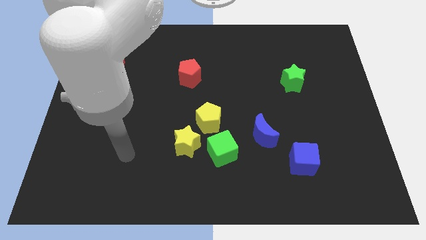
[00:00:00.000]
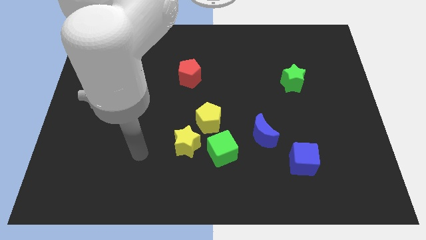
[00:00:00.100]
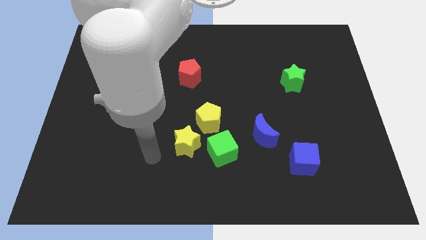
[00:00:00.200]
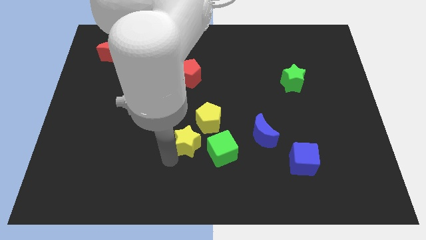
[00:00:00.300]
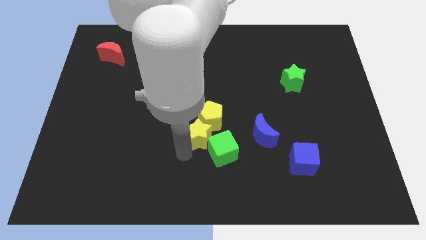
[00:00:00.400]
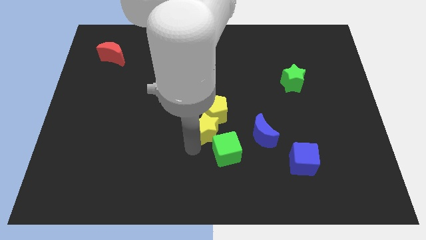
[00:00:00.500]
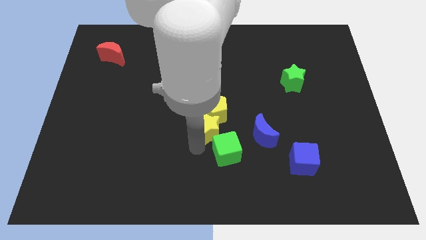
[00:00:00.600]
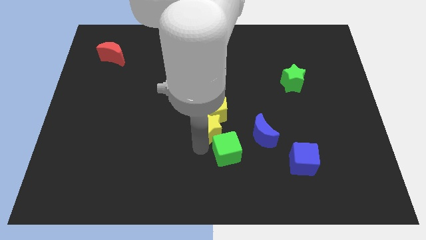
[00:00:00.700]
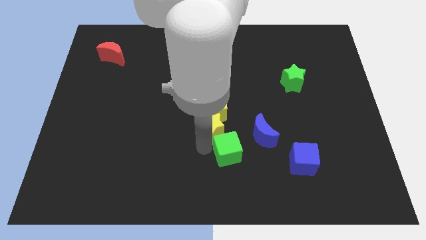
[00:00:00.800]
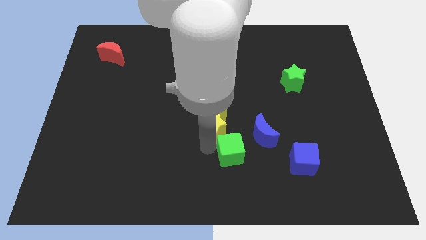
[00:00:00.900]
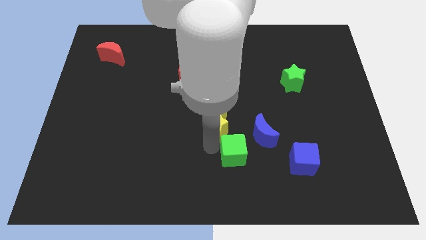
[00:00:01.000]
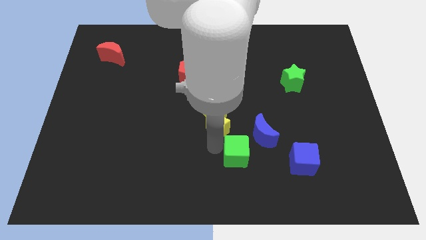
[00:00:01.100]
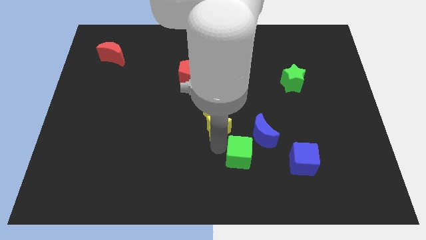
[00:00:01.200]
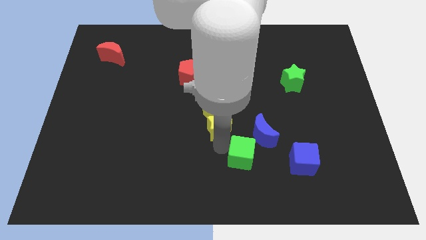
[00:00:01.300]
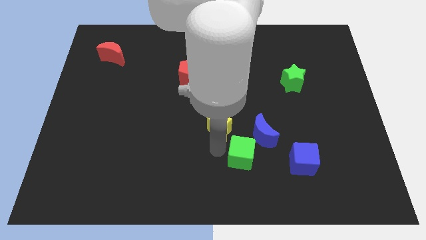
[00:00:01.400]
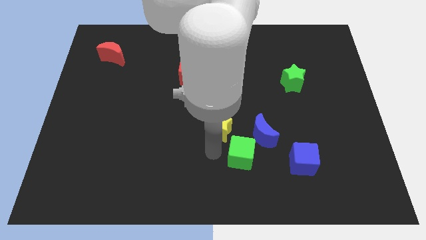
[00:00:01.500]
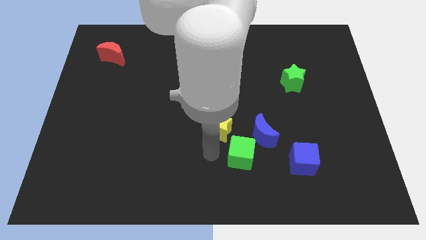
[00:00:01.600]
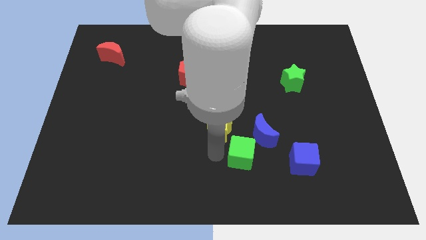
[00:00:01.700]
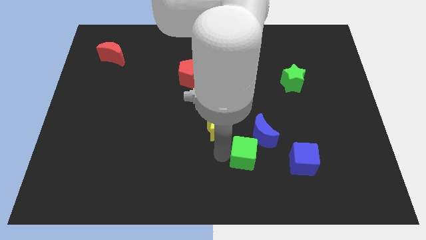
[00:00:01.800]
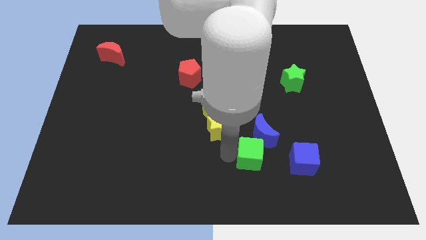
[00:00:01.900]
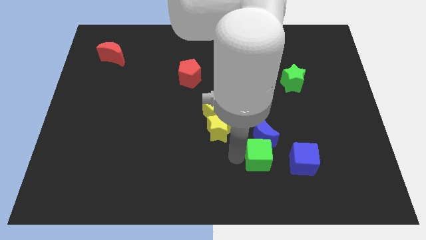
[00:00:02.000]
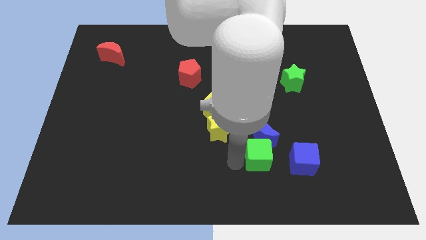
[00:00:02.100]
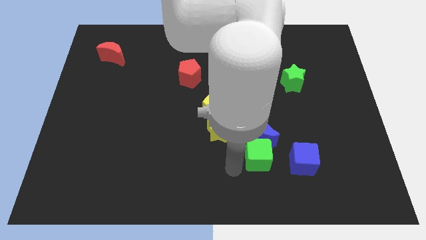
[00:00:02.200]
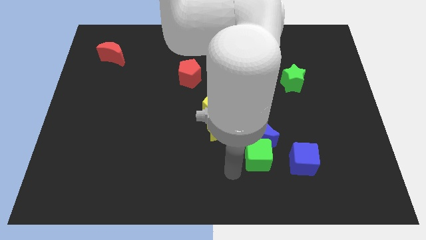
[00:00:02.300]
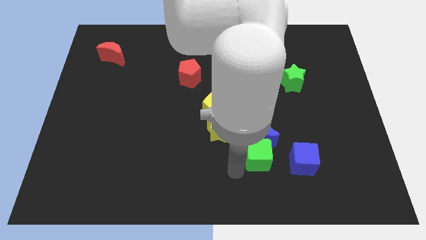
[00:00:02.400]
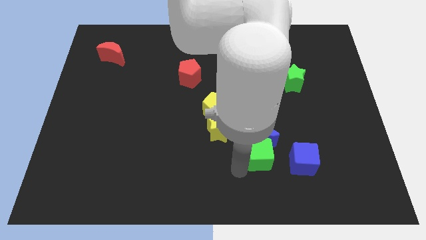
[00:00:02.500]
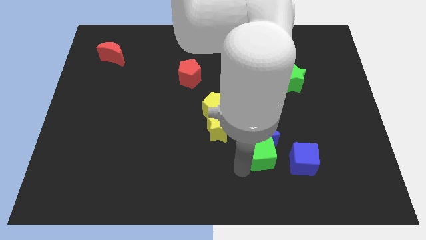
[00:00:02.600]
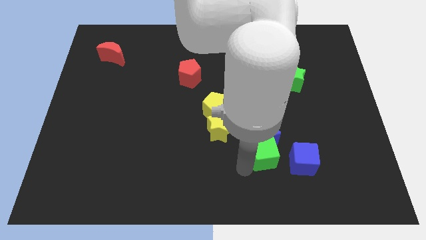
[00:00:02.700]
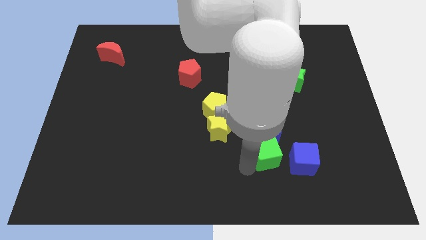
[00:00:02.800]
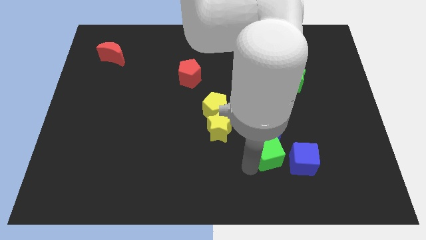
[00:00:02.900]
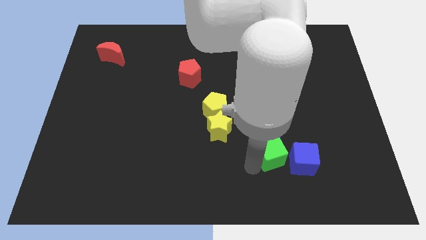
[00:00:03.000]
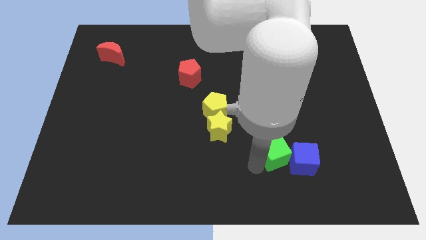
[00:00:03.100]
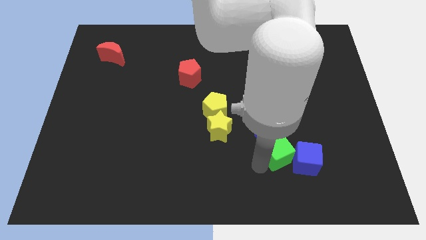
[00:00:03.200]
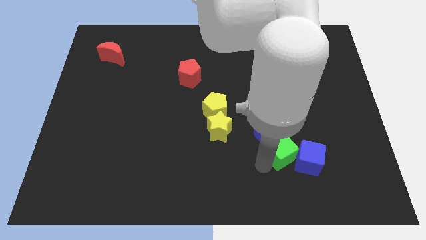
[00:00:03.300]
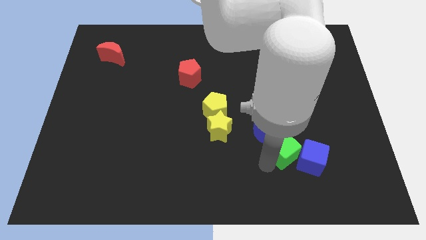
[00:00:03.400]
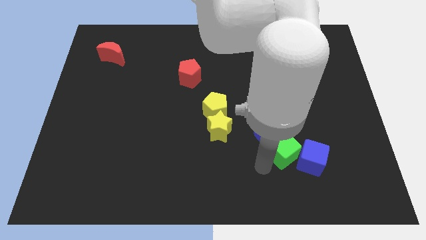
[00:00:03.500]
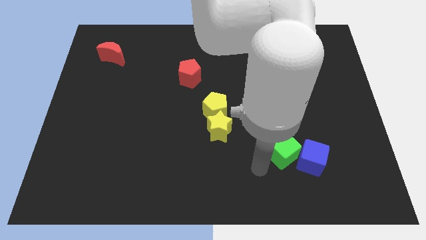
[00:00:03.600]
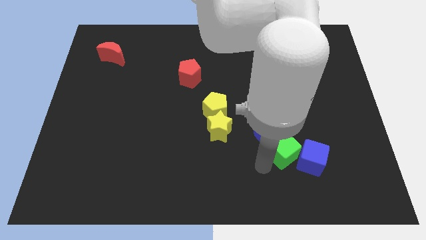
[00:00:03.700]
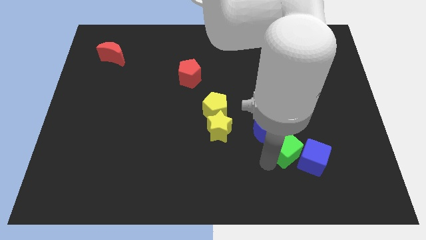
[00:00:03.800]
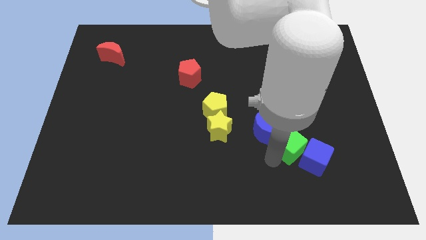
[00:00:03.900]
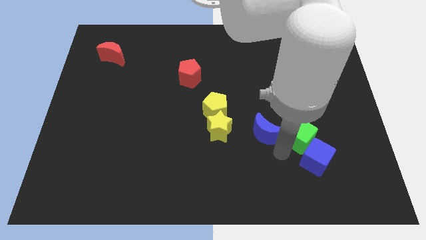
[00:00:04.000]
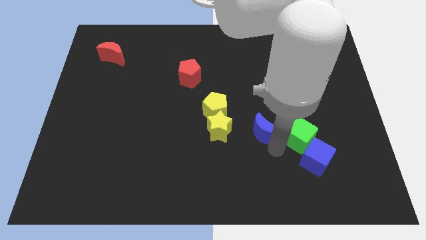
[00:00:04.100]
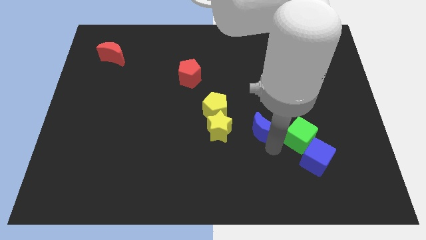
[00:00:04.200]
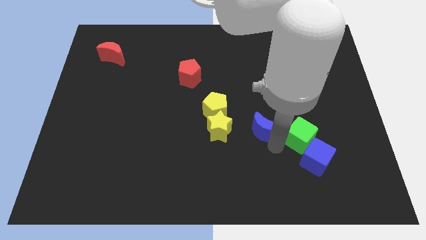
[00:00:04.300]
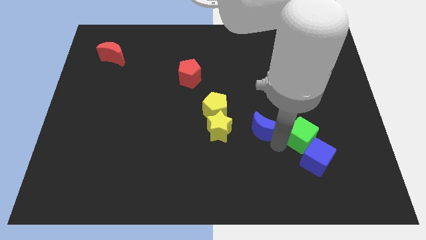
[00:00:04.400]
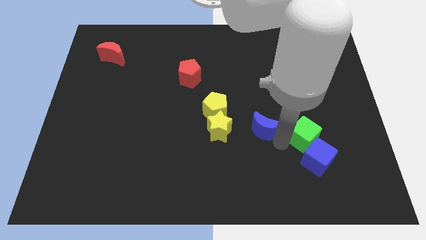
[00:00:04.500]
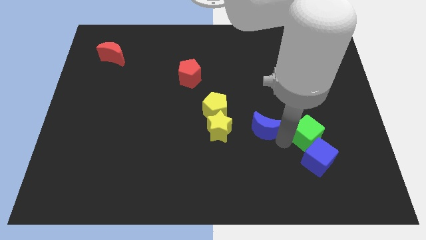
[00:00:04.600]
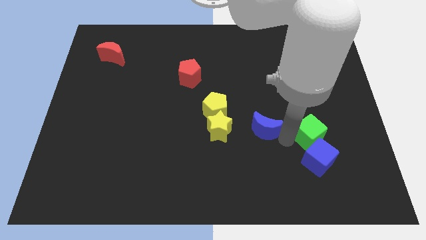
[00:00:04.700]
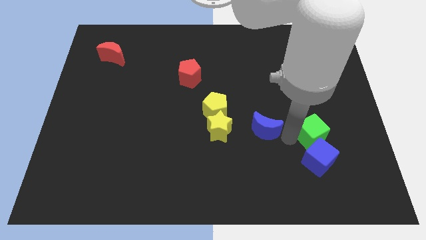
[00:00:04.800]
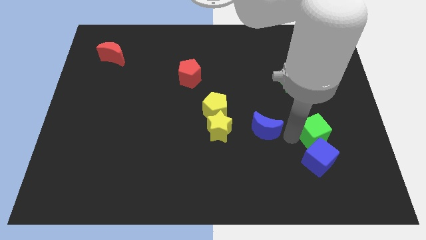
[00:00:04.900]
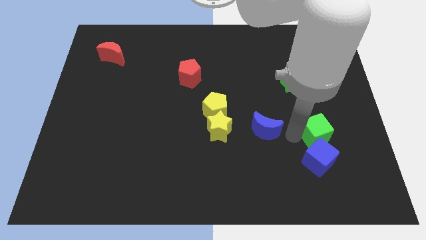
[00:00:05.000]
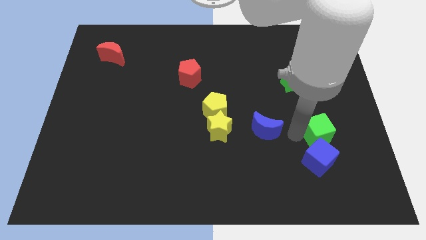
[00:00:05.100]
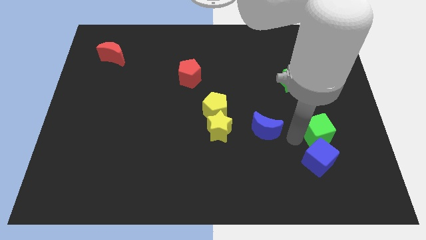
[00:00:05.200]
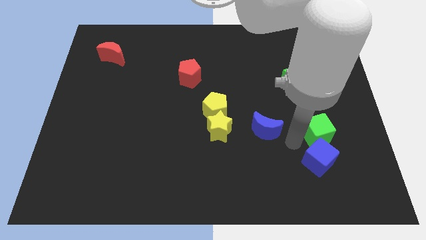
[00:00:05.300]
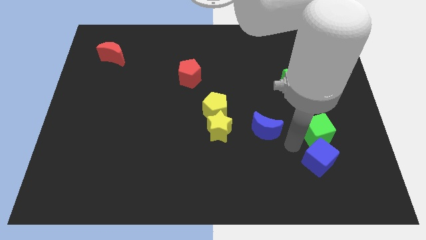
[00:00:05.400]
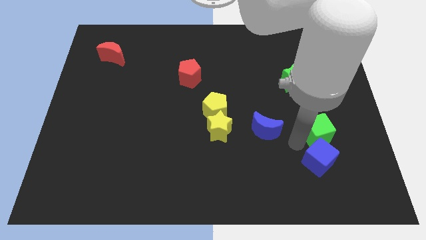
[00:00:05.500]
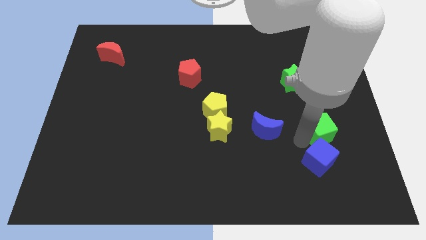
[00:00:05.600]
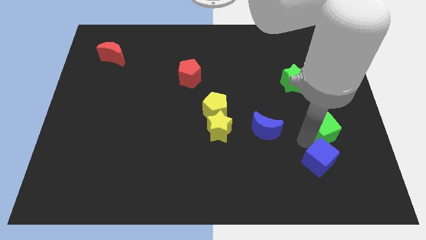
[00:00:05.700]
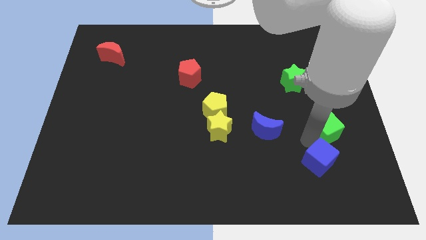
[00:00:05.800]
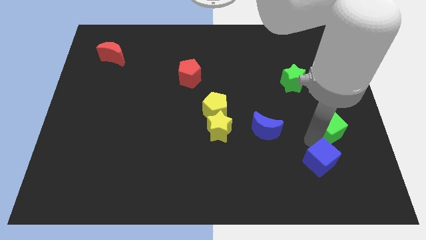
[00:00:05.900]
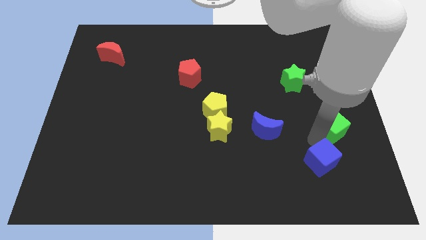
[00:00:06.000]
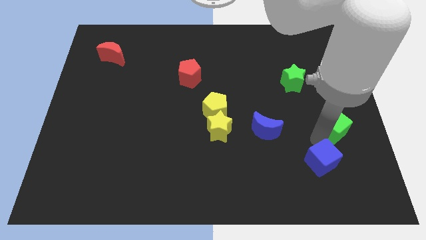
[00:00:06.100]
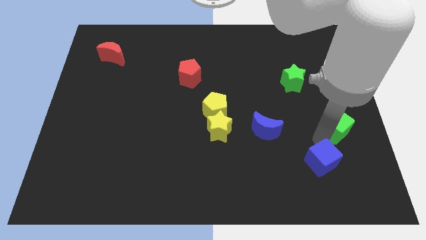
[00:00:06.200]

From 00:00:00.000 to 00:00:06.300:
move the green cube to the right side of the board
